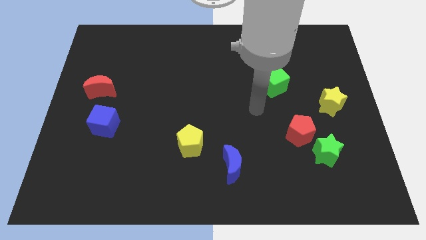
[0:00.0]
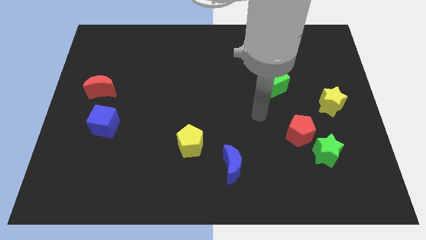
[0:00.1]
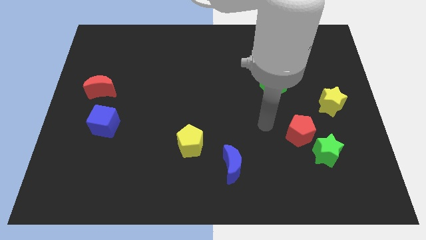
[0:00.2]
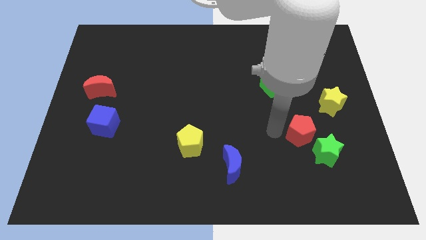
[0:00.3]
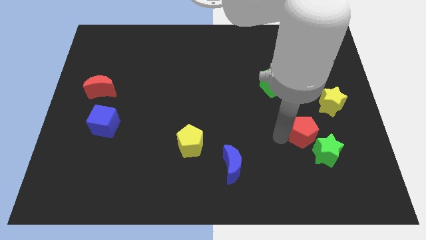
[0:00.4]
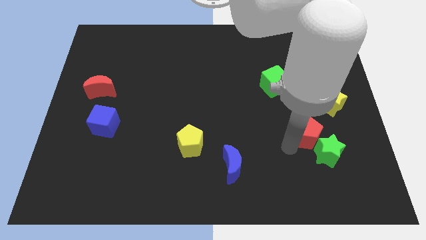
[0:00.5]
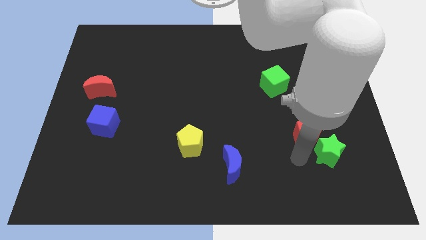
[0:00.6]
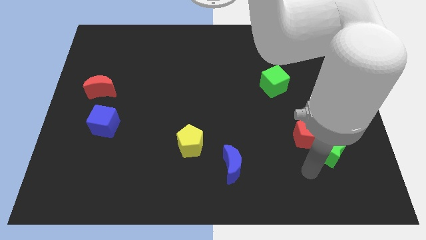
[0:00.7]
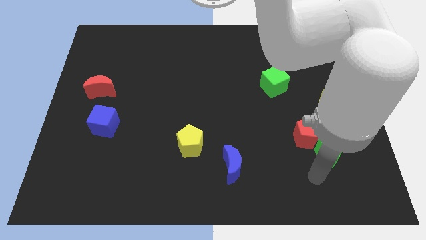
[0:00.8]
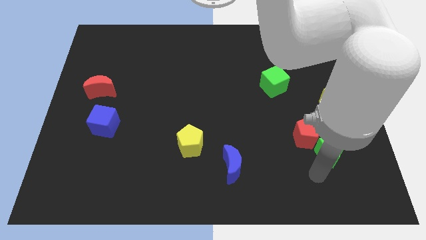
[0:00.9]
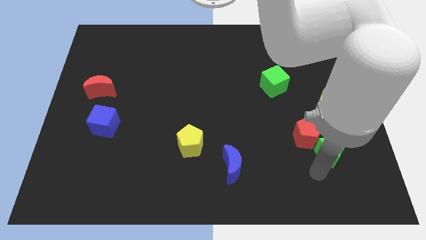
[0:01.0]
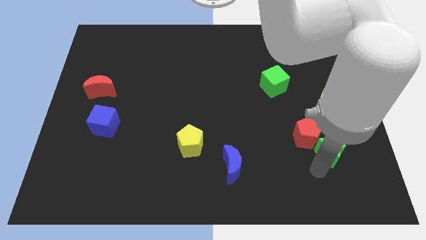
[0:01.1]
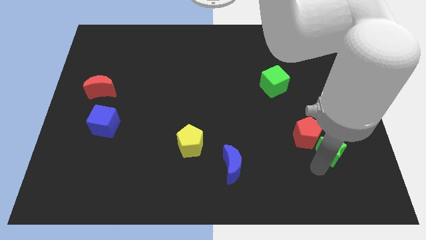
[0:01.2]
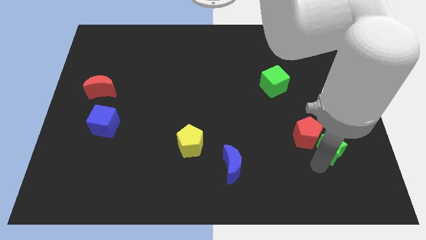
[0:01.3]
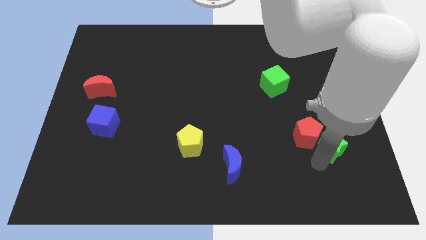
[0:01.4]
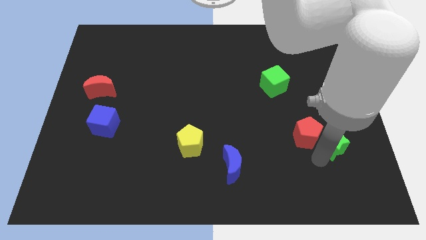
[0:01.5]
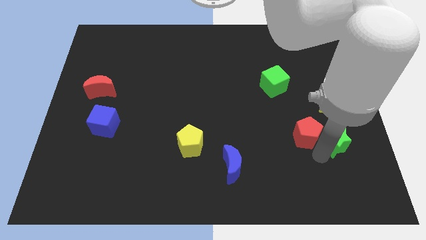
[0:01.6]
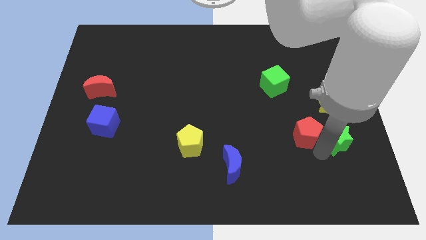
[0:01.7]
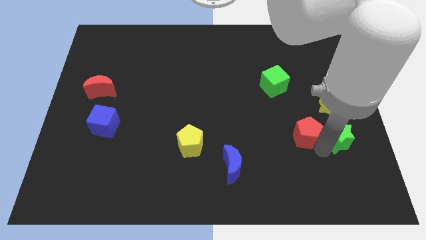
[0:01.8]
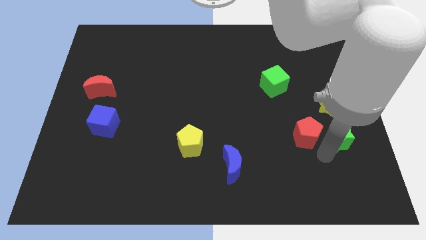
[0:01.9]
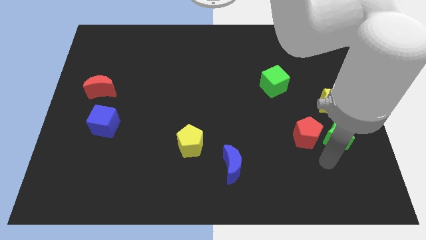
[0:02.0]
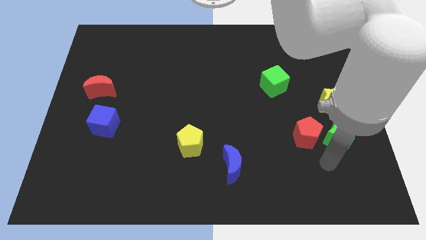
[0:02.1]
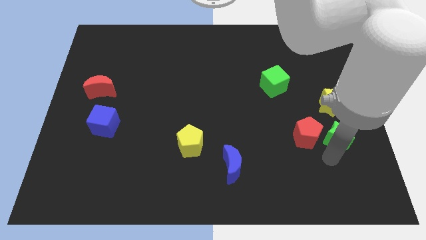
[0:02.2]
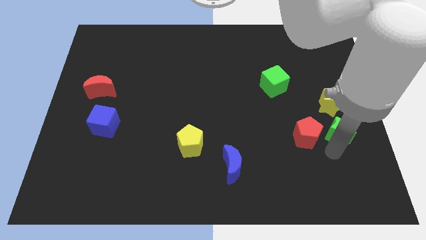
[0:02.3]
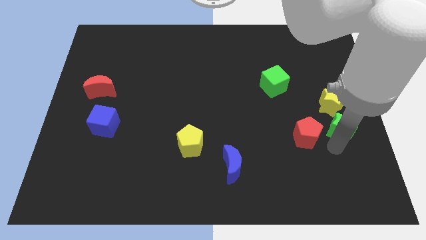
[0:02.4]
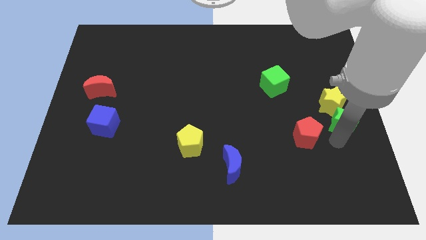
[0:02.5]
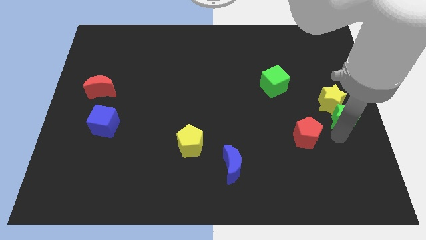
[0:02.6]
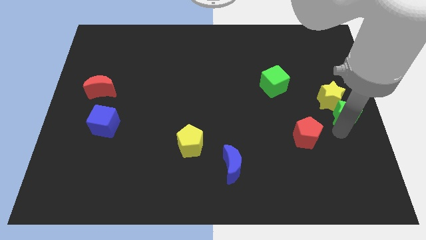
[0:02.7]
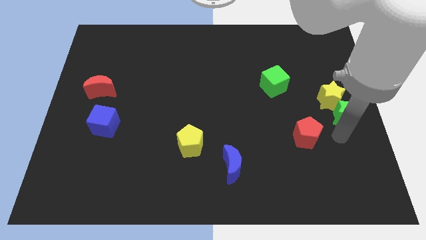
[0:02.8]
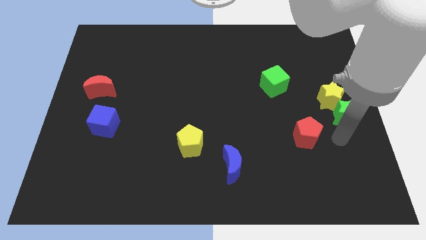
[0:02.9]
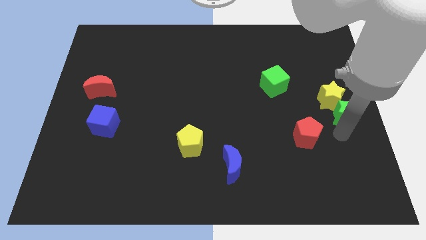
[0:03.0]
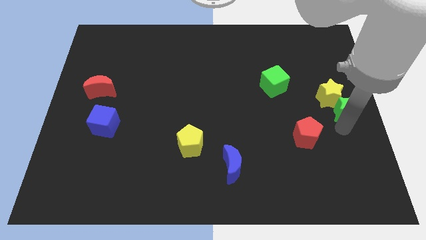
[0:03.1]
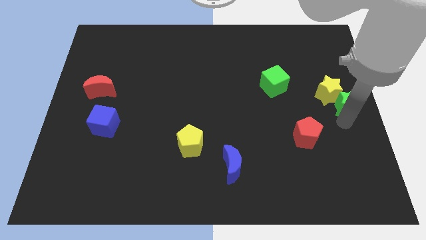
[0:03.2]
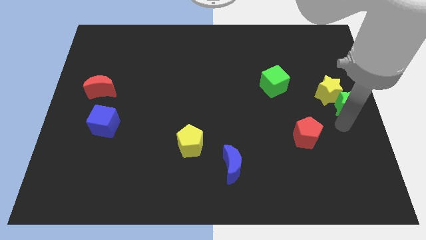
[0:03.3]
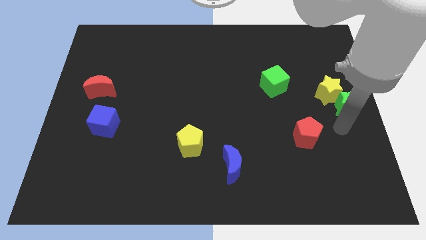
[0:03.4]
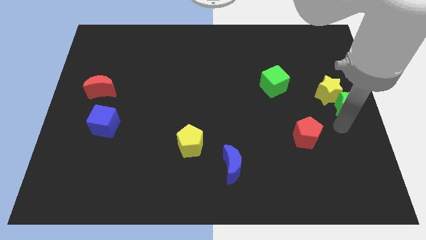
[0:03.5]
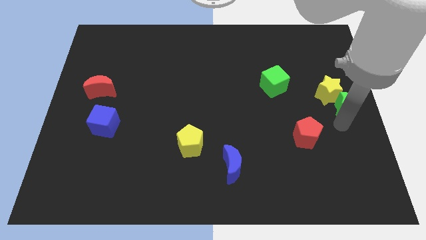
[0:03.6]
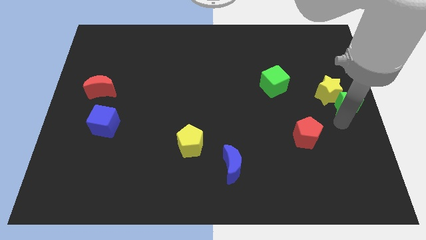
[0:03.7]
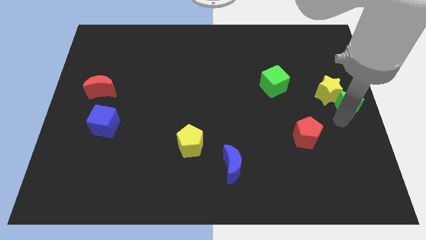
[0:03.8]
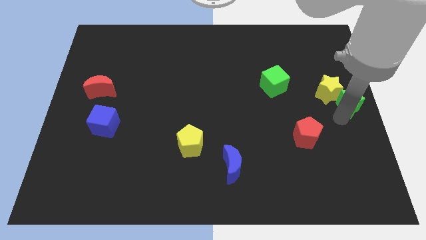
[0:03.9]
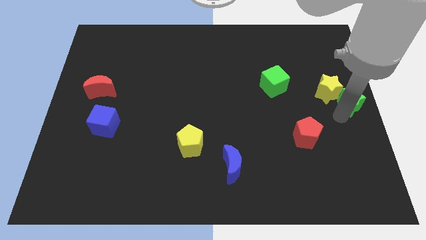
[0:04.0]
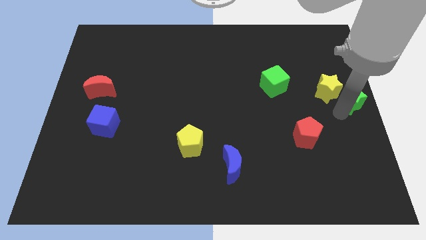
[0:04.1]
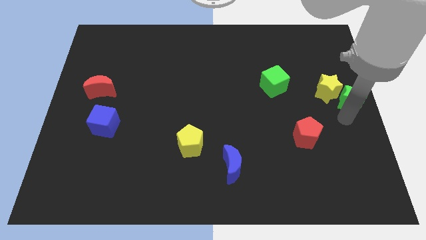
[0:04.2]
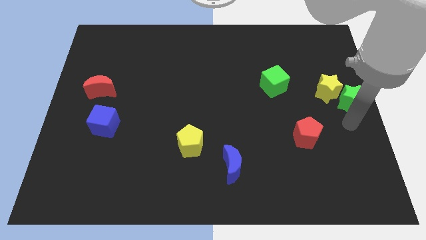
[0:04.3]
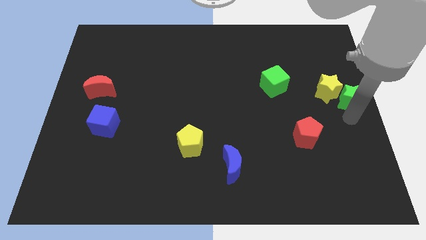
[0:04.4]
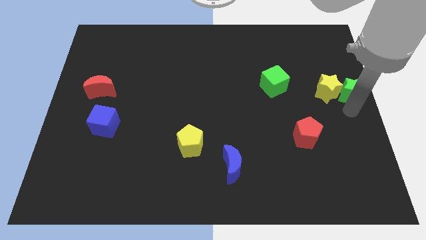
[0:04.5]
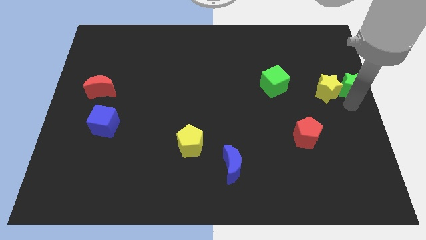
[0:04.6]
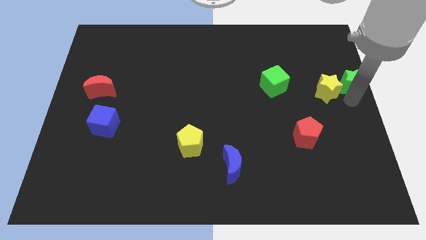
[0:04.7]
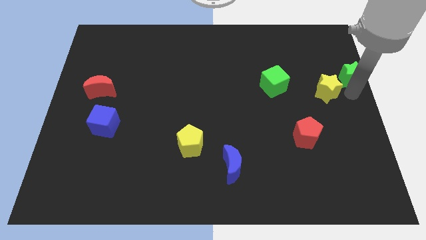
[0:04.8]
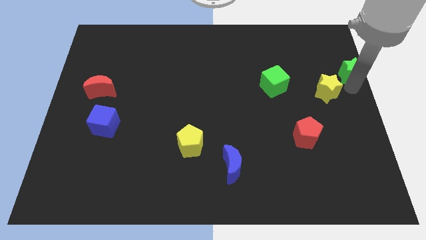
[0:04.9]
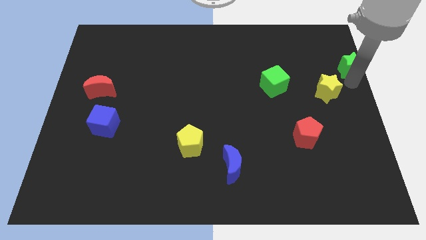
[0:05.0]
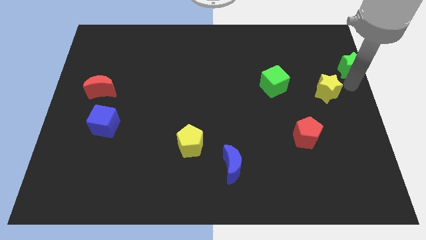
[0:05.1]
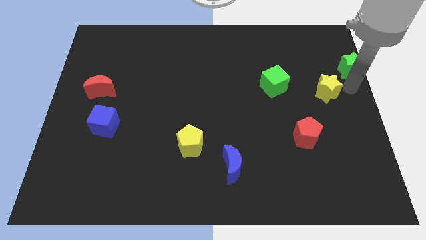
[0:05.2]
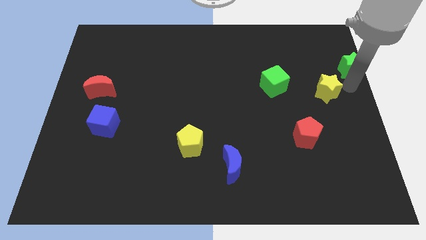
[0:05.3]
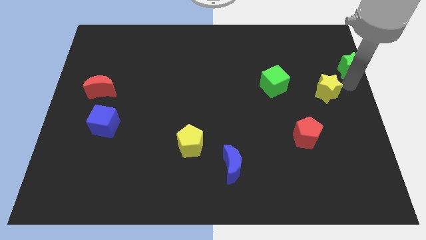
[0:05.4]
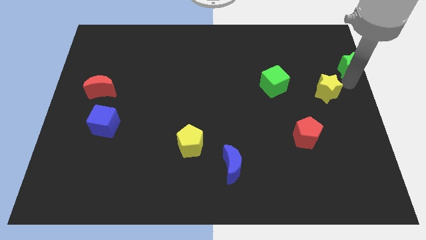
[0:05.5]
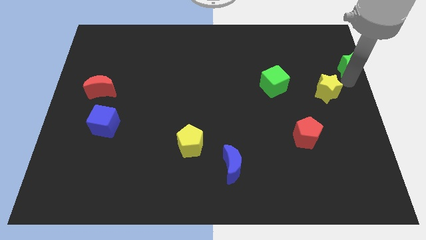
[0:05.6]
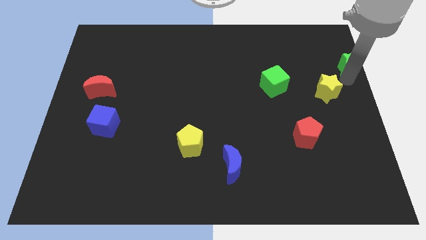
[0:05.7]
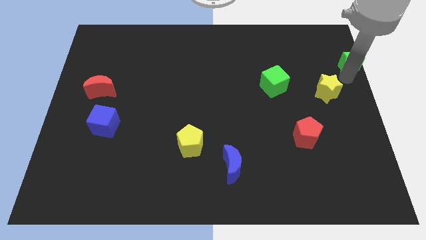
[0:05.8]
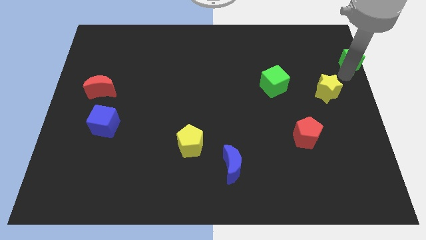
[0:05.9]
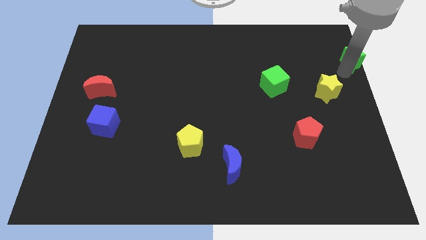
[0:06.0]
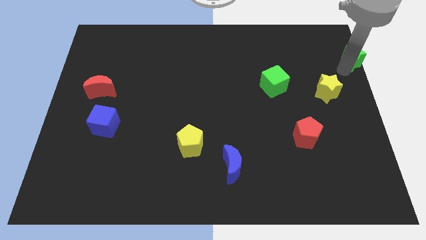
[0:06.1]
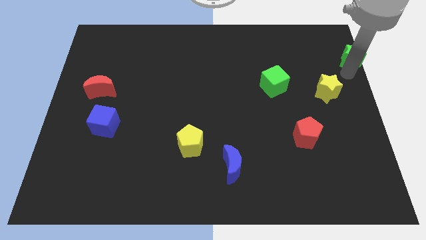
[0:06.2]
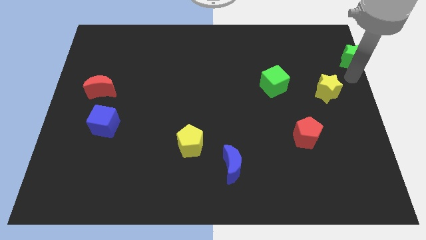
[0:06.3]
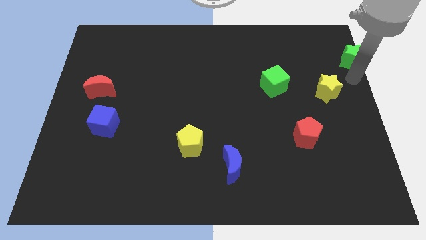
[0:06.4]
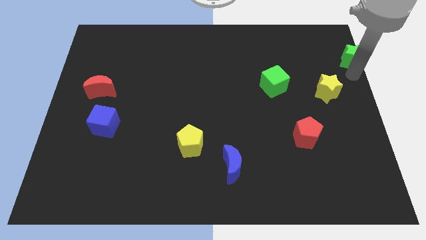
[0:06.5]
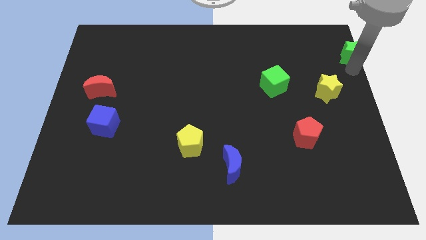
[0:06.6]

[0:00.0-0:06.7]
move the green star to the upper right corner
